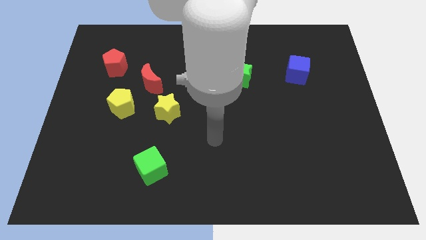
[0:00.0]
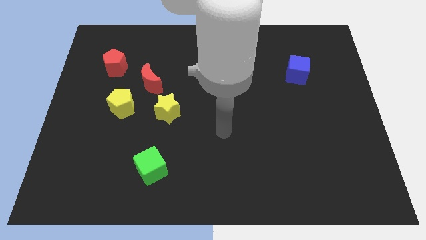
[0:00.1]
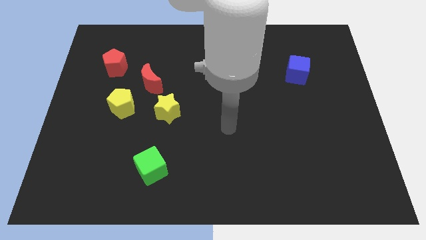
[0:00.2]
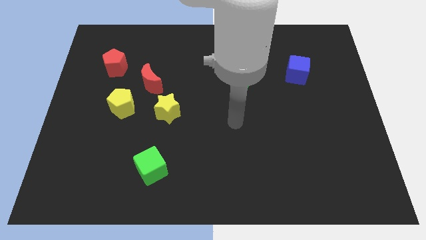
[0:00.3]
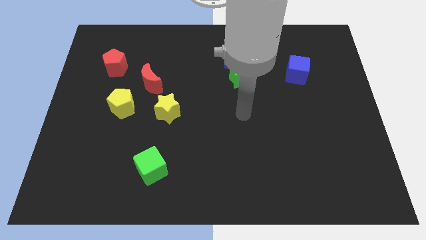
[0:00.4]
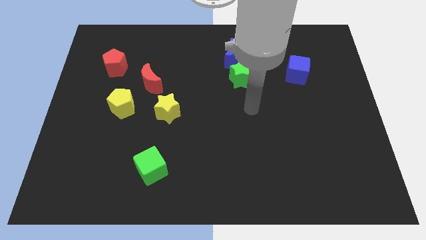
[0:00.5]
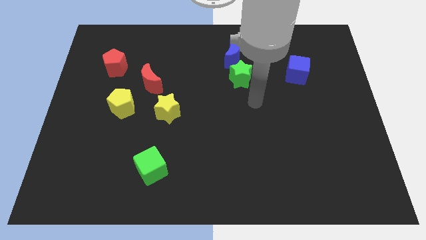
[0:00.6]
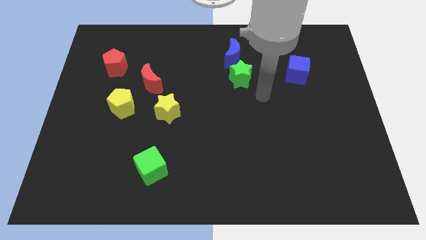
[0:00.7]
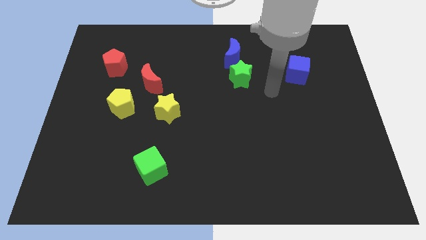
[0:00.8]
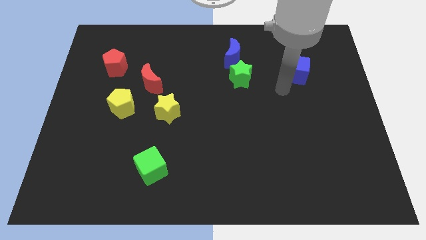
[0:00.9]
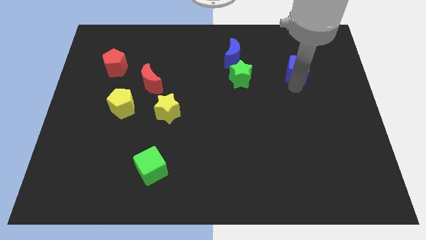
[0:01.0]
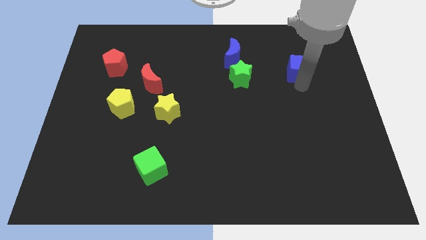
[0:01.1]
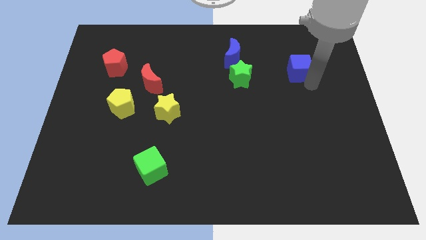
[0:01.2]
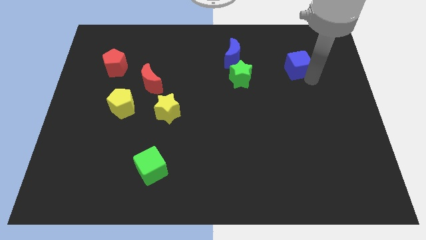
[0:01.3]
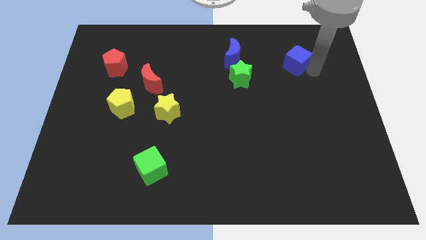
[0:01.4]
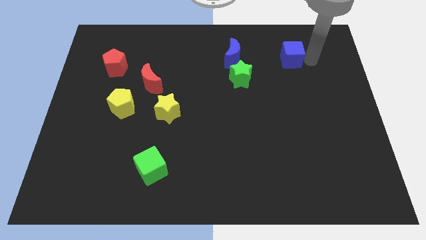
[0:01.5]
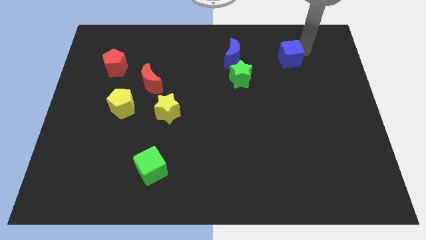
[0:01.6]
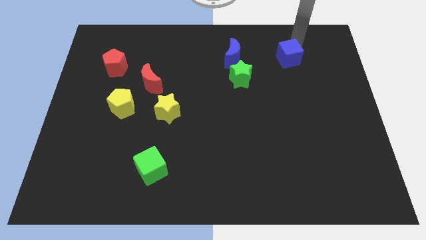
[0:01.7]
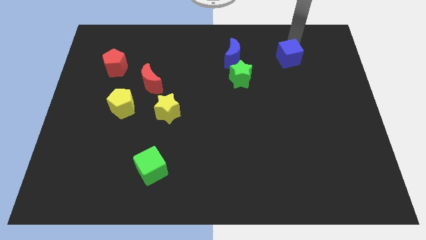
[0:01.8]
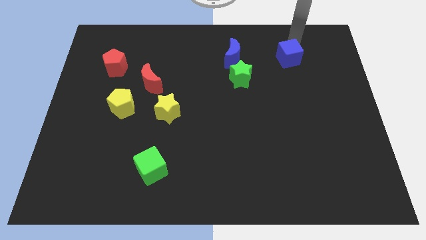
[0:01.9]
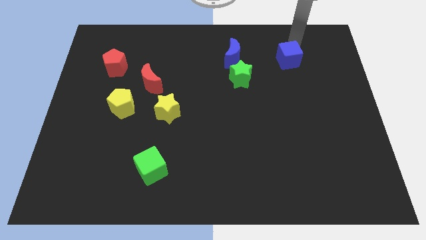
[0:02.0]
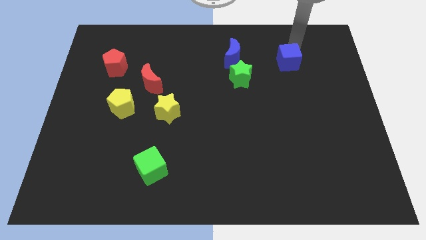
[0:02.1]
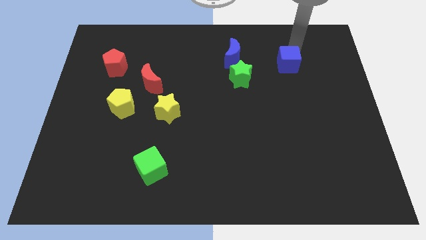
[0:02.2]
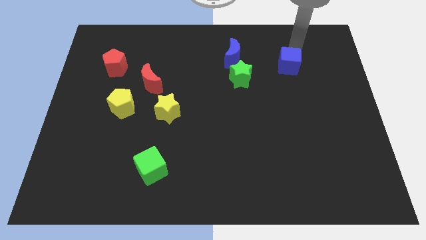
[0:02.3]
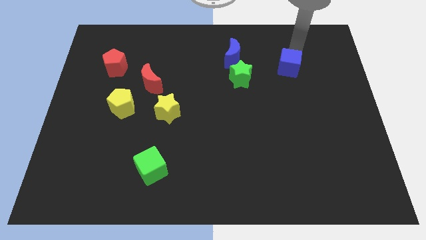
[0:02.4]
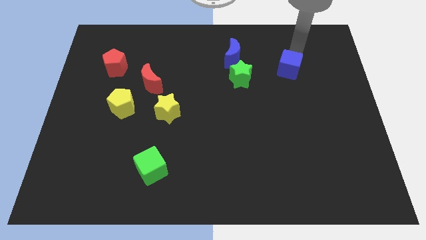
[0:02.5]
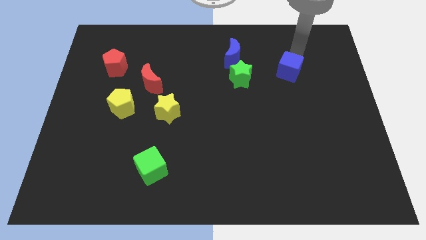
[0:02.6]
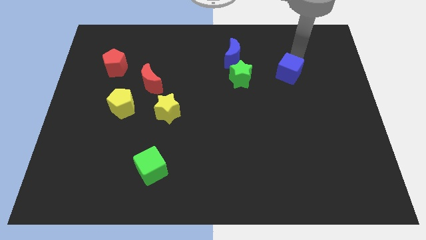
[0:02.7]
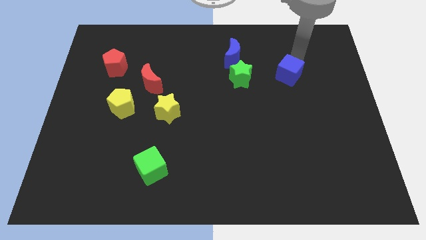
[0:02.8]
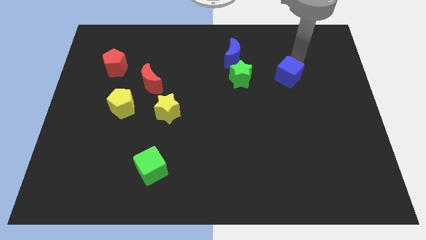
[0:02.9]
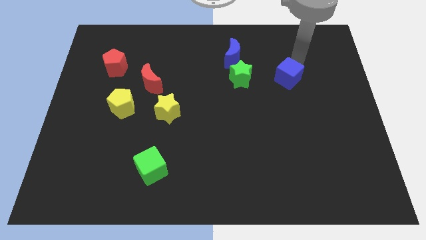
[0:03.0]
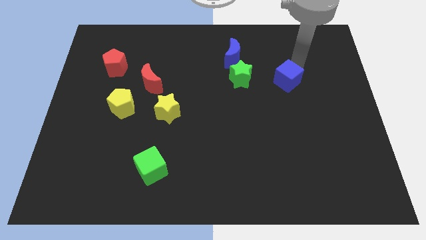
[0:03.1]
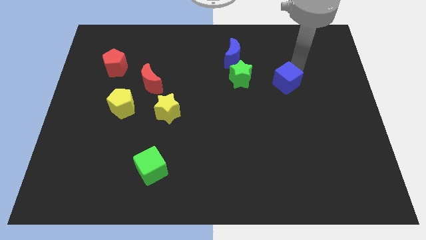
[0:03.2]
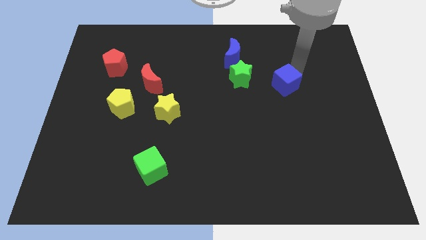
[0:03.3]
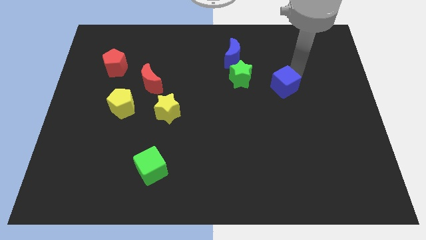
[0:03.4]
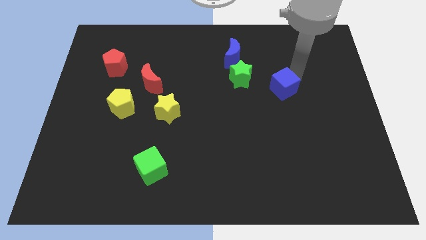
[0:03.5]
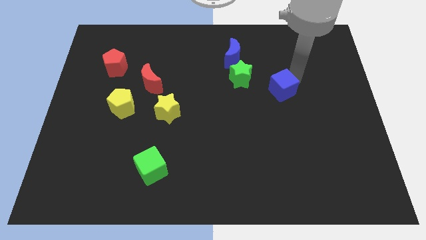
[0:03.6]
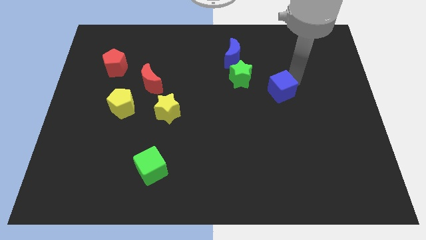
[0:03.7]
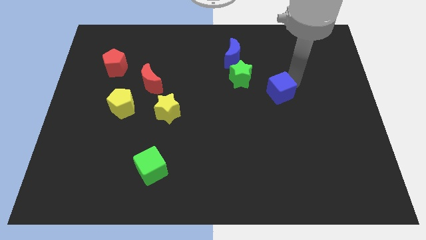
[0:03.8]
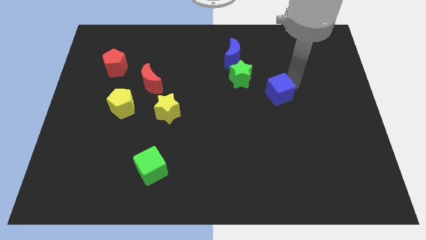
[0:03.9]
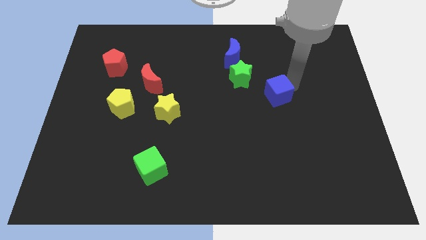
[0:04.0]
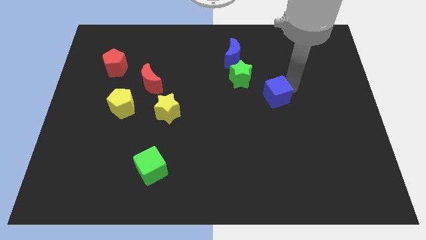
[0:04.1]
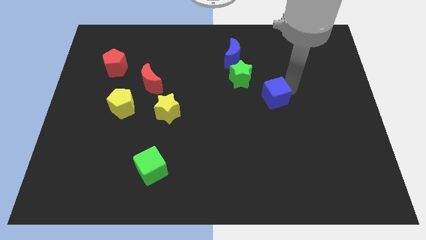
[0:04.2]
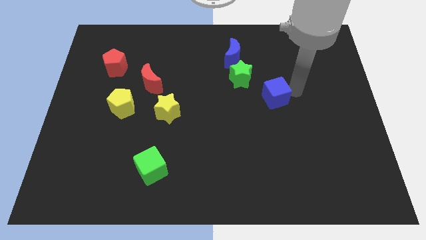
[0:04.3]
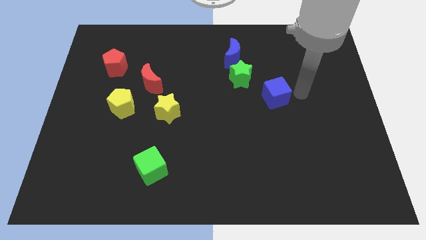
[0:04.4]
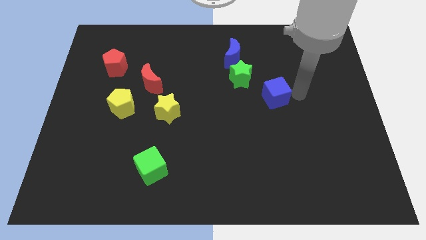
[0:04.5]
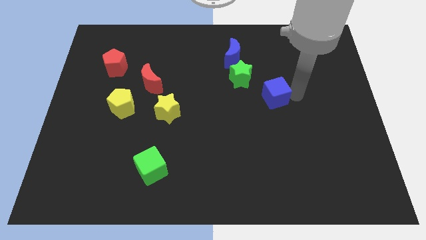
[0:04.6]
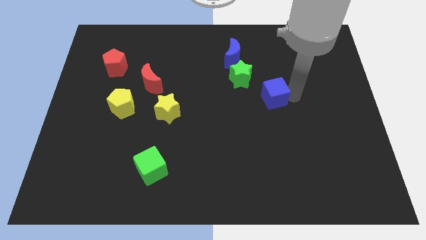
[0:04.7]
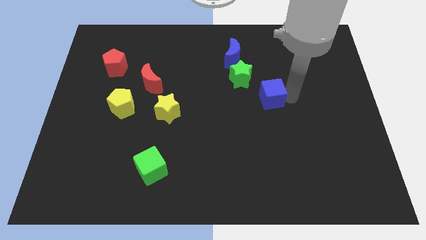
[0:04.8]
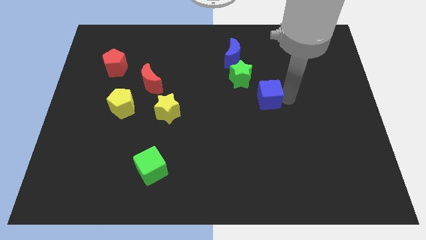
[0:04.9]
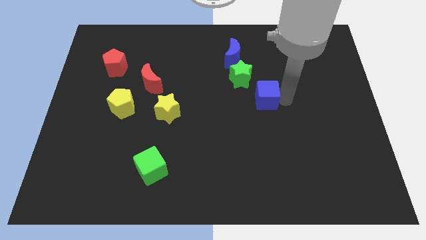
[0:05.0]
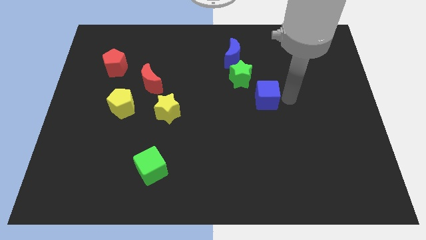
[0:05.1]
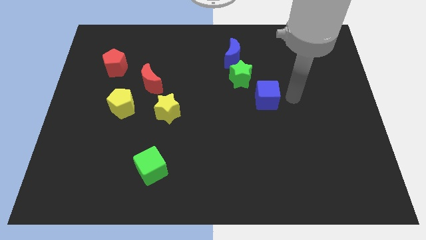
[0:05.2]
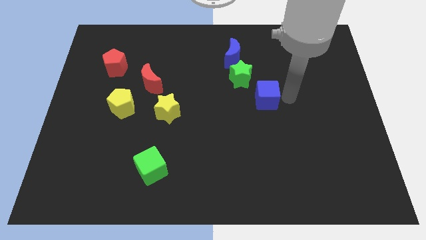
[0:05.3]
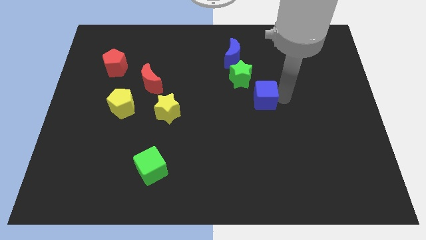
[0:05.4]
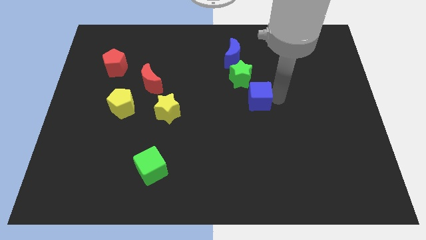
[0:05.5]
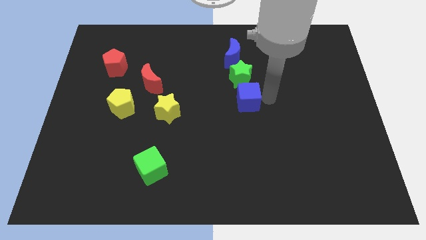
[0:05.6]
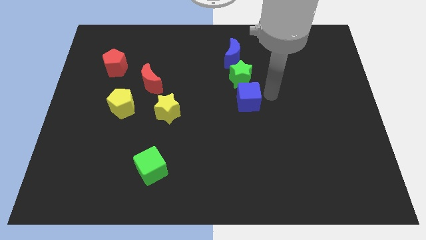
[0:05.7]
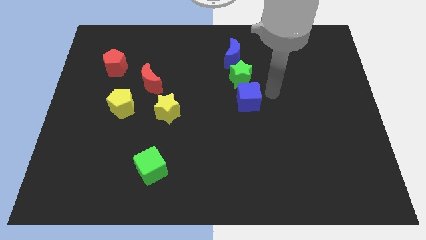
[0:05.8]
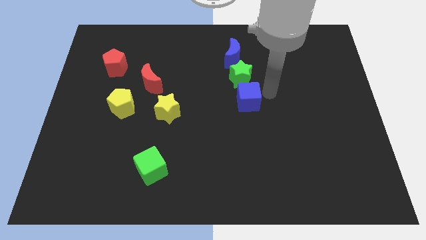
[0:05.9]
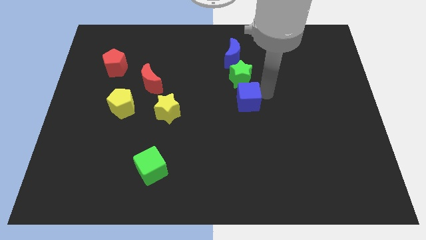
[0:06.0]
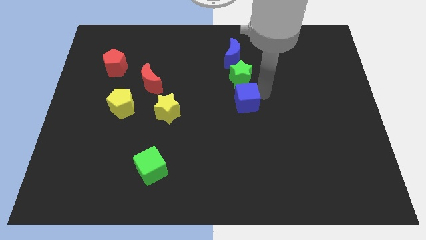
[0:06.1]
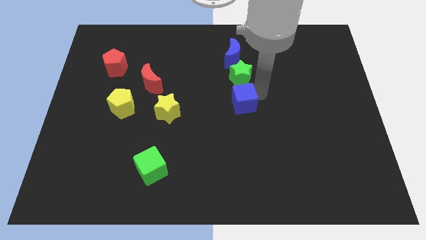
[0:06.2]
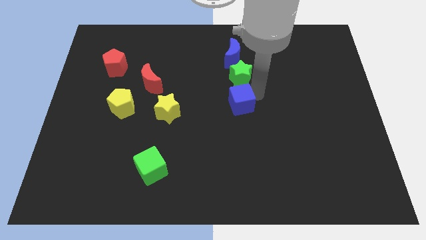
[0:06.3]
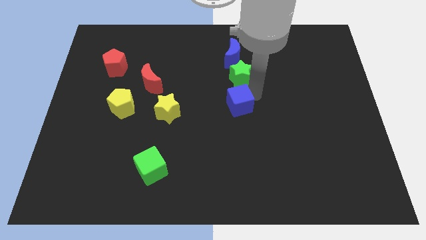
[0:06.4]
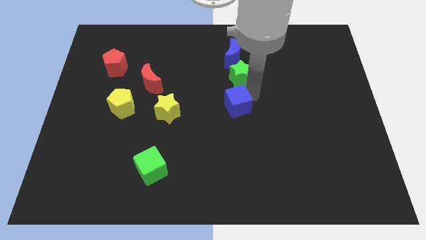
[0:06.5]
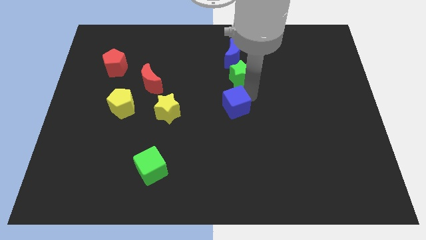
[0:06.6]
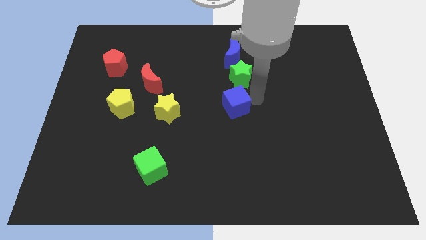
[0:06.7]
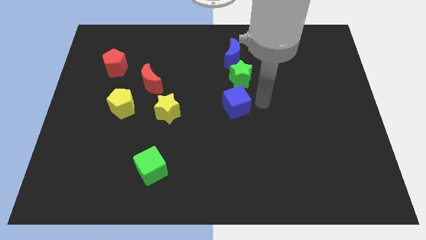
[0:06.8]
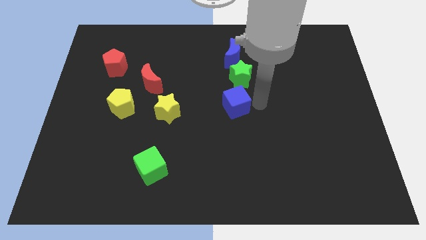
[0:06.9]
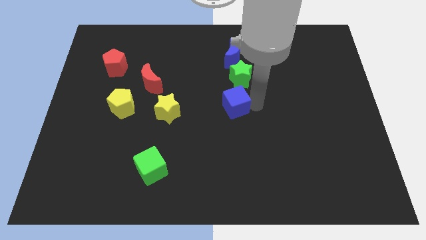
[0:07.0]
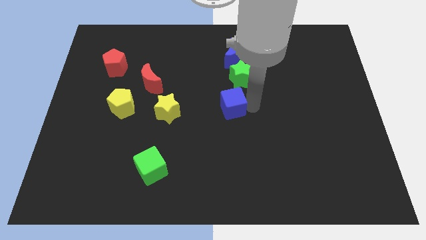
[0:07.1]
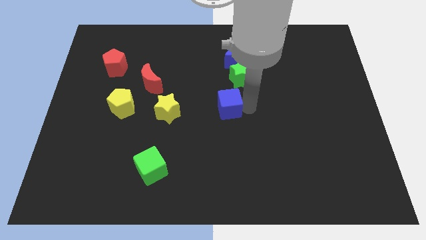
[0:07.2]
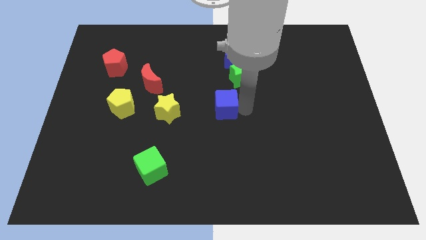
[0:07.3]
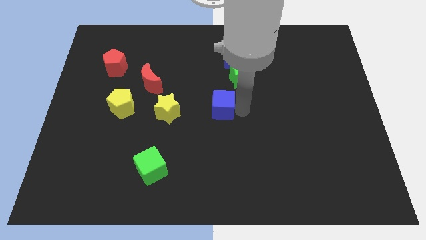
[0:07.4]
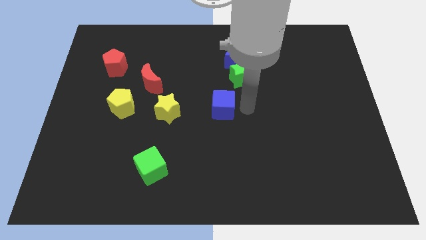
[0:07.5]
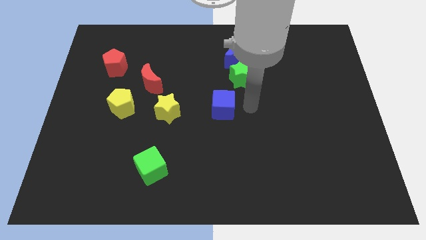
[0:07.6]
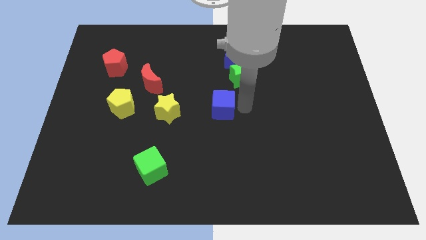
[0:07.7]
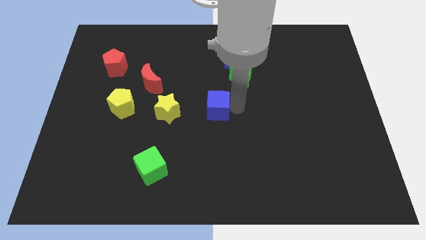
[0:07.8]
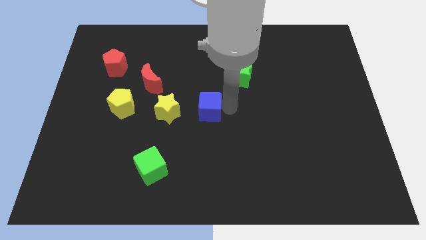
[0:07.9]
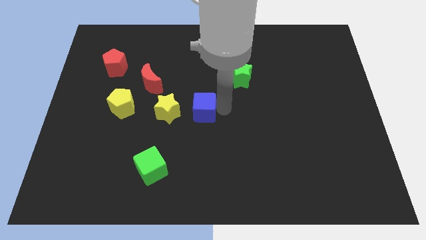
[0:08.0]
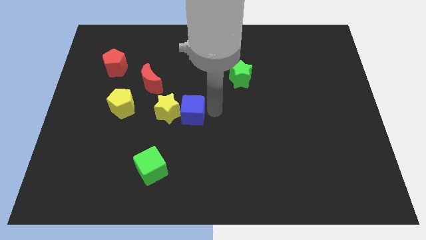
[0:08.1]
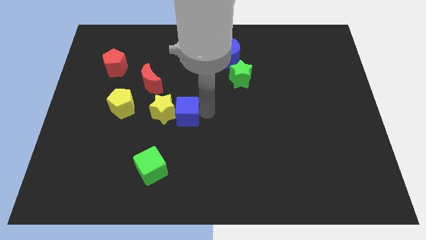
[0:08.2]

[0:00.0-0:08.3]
put the blue cube just right of the yellow pentagon
